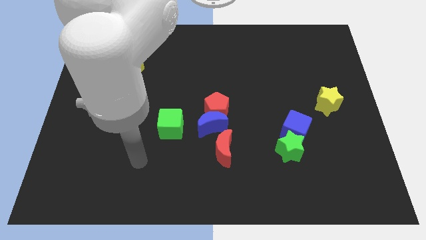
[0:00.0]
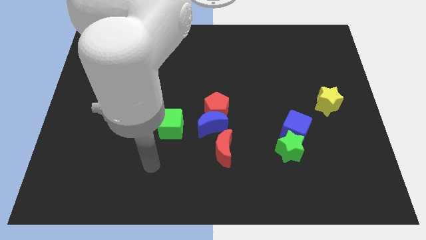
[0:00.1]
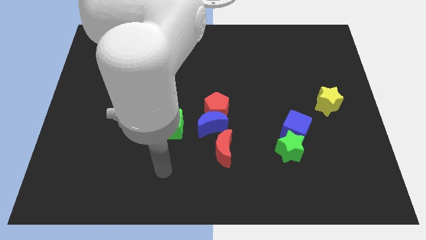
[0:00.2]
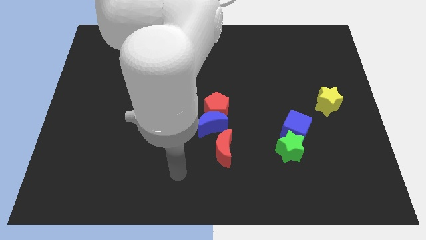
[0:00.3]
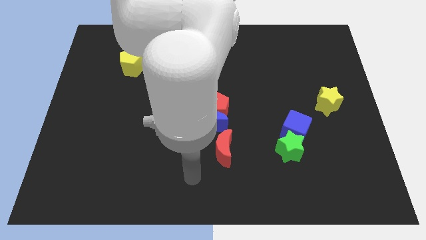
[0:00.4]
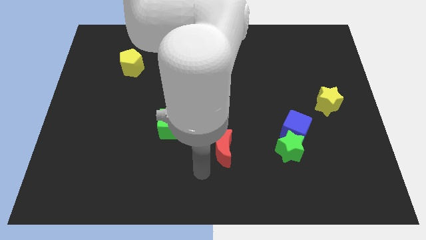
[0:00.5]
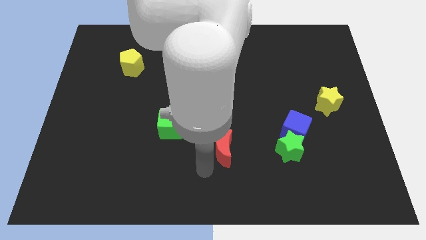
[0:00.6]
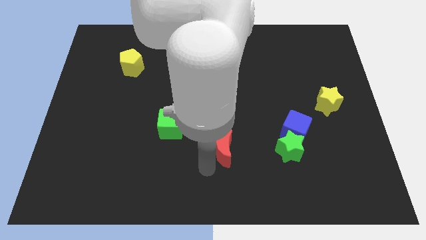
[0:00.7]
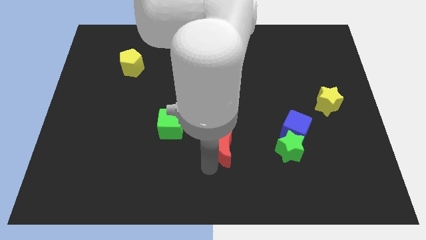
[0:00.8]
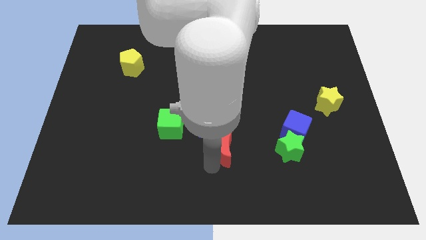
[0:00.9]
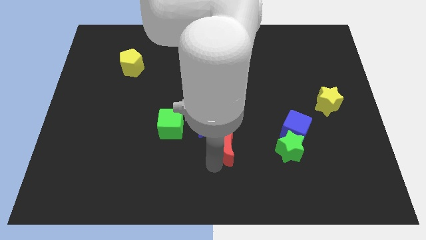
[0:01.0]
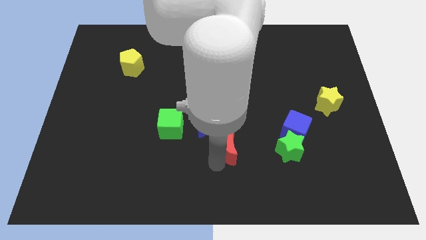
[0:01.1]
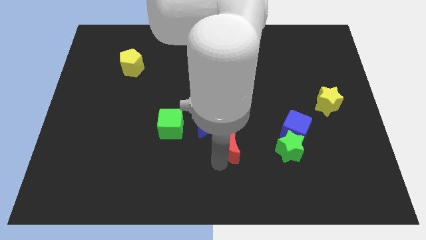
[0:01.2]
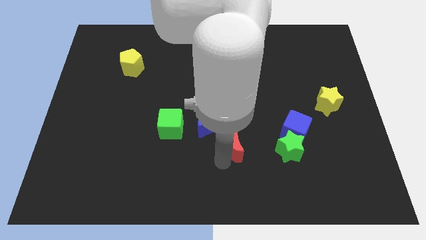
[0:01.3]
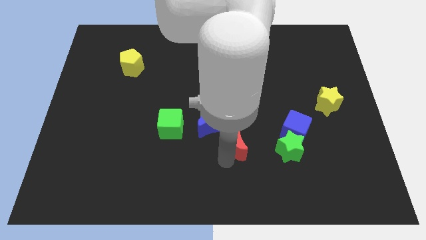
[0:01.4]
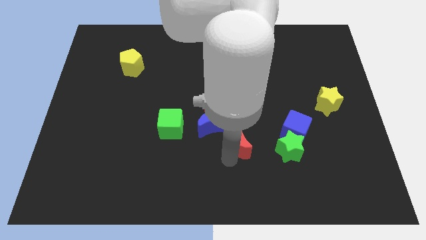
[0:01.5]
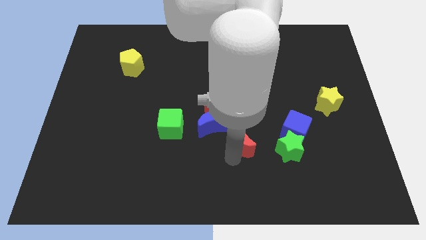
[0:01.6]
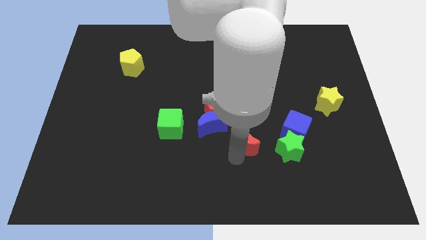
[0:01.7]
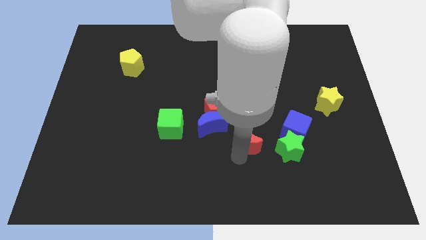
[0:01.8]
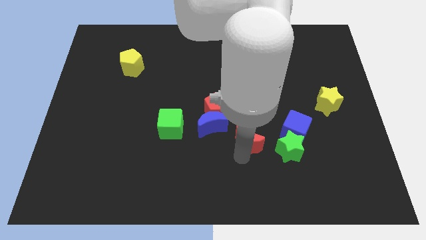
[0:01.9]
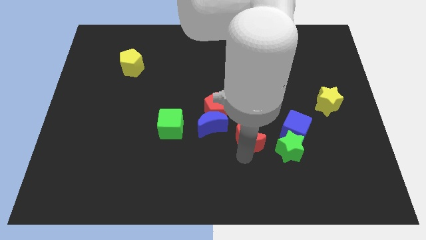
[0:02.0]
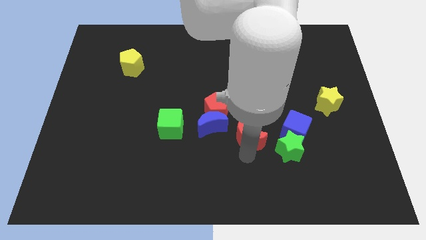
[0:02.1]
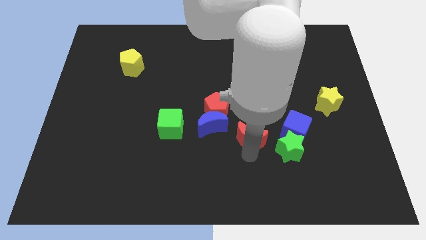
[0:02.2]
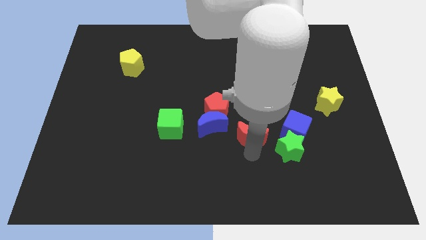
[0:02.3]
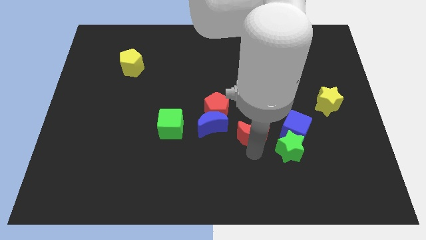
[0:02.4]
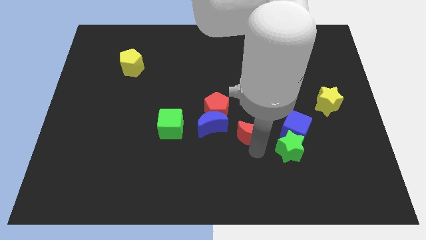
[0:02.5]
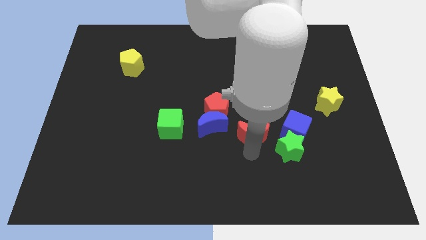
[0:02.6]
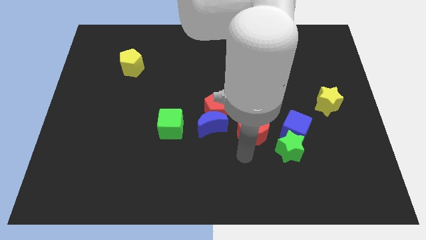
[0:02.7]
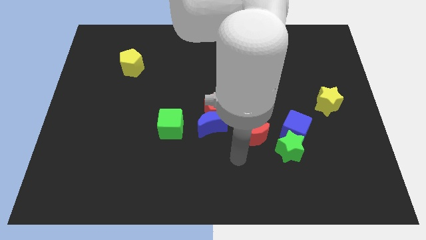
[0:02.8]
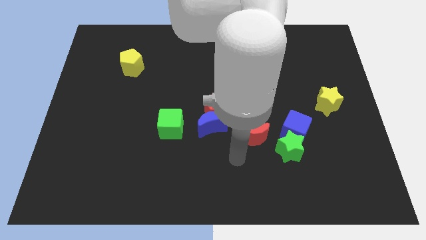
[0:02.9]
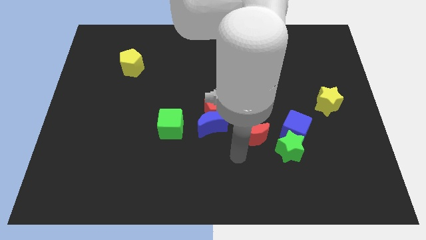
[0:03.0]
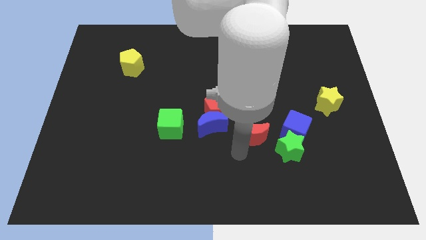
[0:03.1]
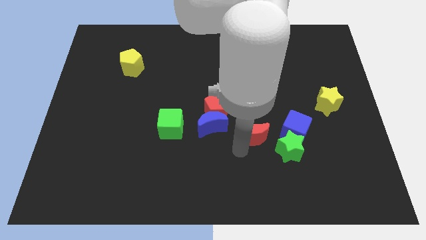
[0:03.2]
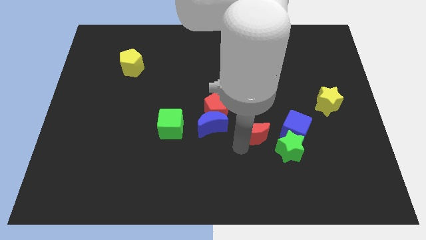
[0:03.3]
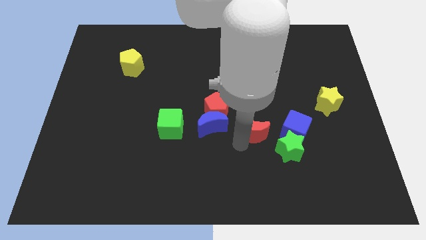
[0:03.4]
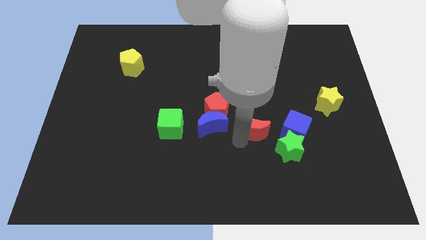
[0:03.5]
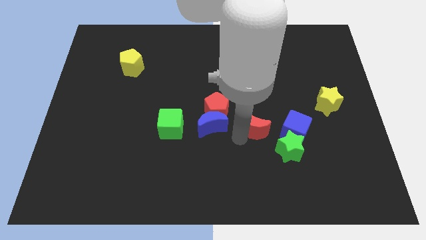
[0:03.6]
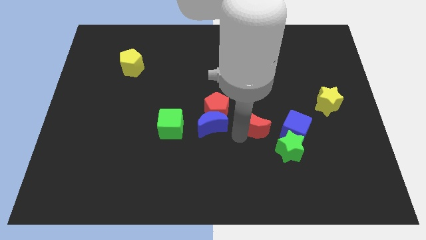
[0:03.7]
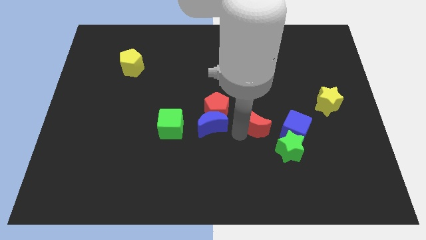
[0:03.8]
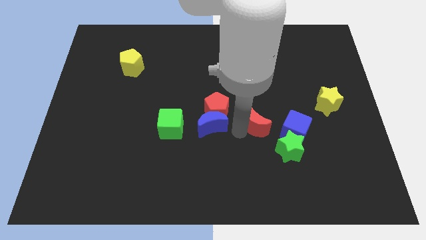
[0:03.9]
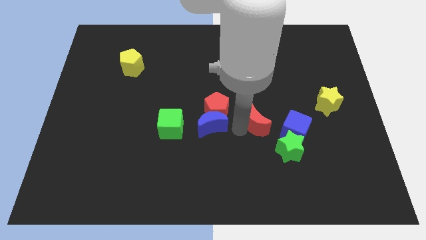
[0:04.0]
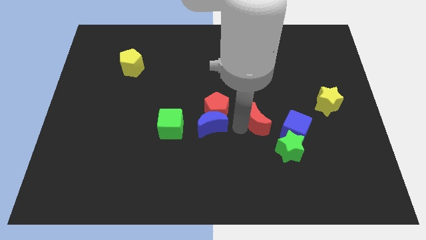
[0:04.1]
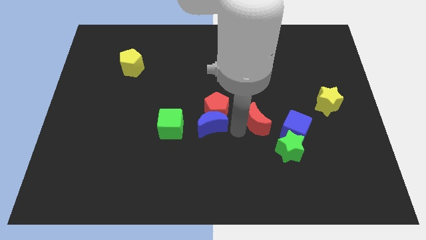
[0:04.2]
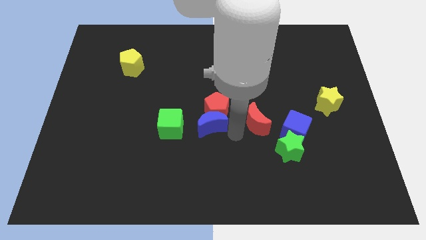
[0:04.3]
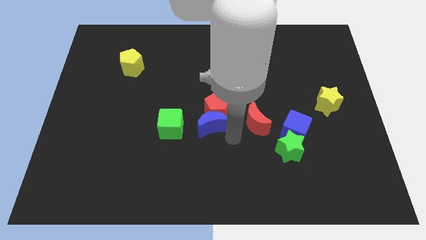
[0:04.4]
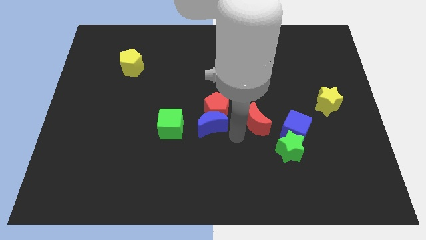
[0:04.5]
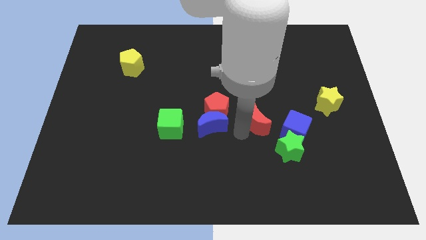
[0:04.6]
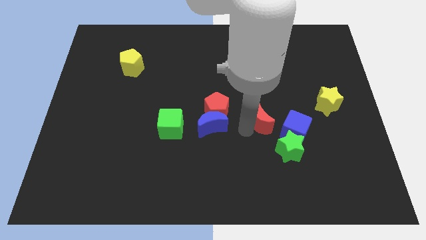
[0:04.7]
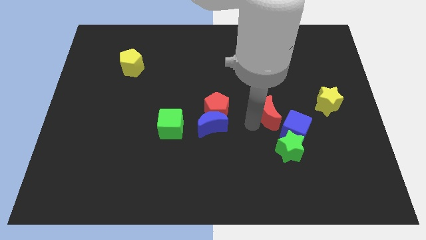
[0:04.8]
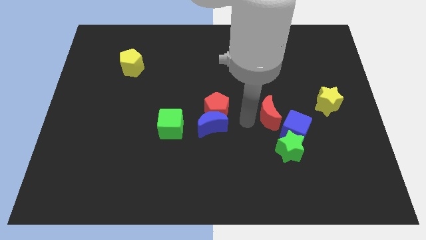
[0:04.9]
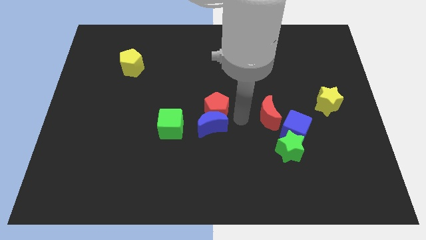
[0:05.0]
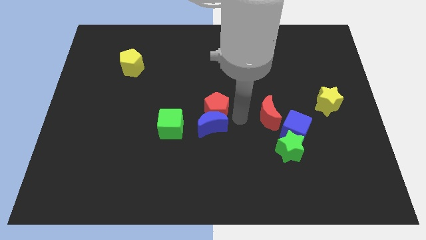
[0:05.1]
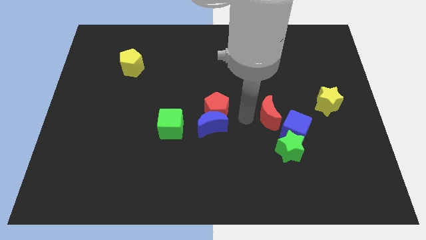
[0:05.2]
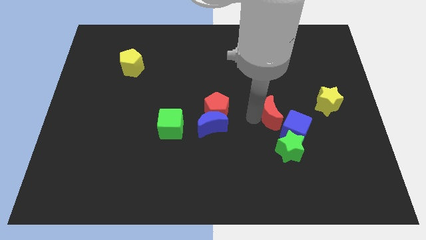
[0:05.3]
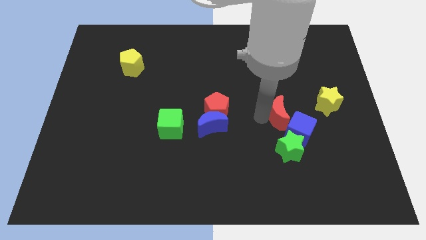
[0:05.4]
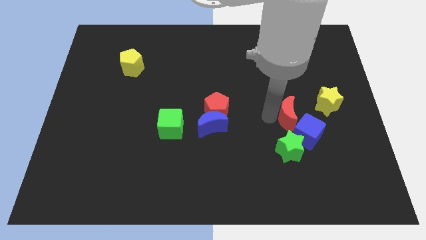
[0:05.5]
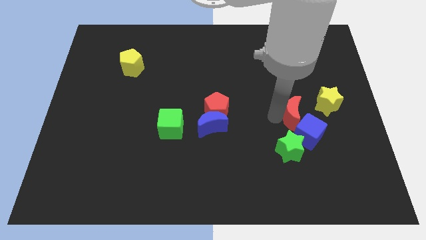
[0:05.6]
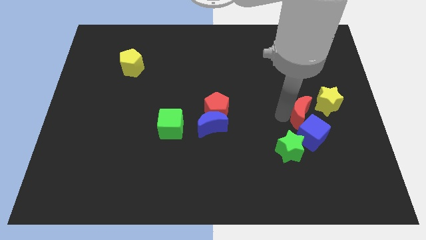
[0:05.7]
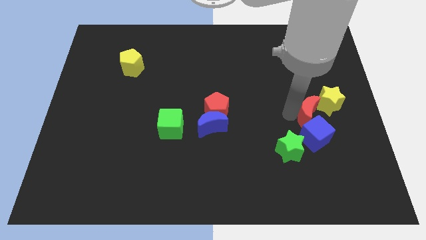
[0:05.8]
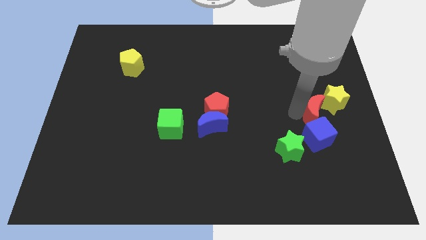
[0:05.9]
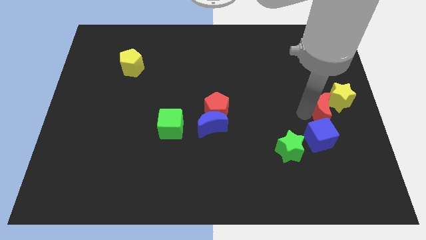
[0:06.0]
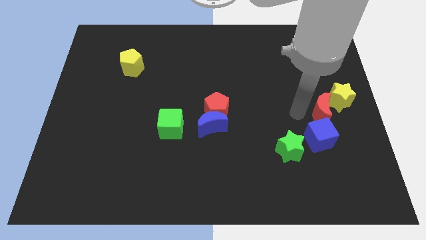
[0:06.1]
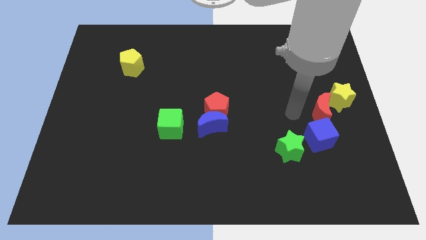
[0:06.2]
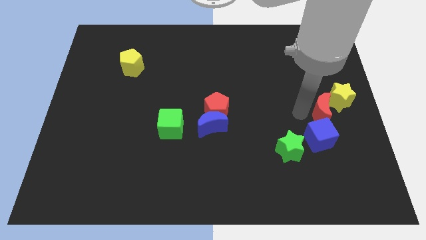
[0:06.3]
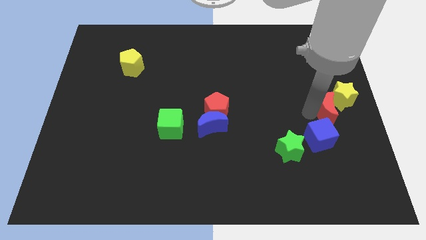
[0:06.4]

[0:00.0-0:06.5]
move the red moon to the right side

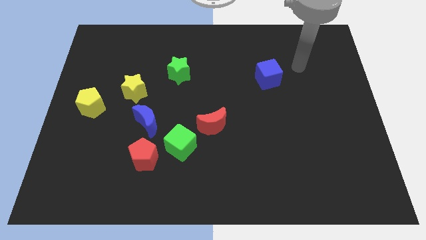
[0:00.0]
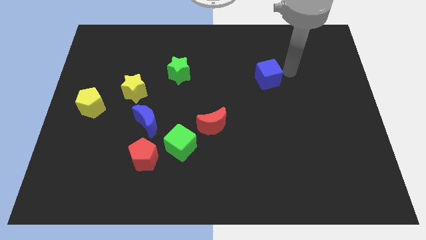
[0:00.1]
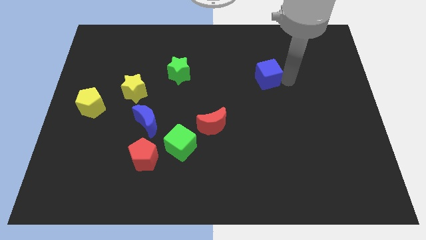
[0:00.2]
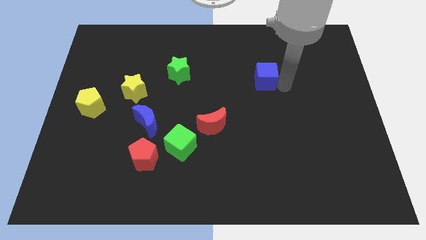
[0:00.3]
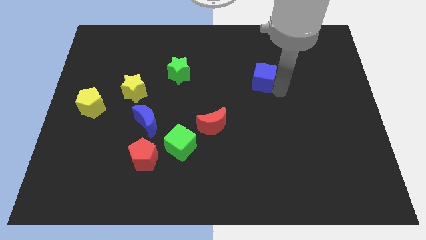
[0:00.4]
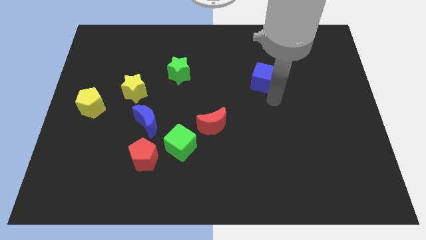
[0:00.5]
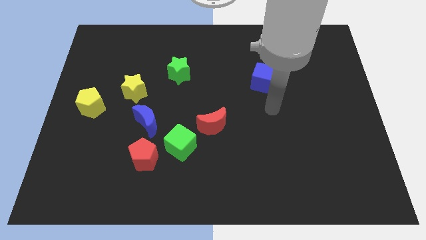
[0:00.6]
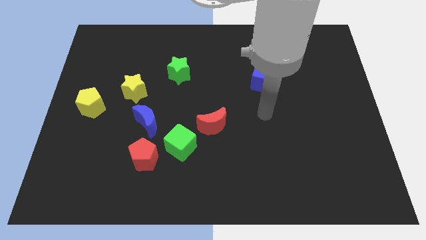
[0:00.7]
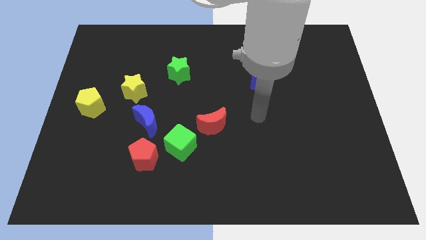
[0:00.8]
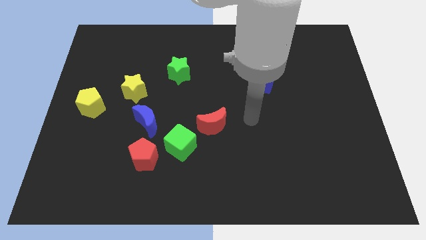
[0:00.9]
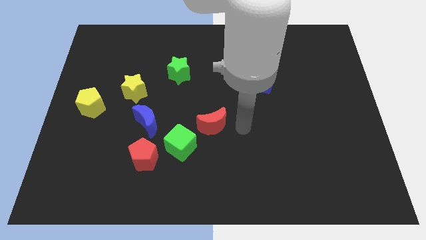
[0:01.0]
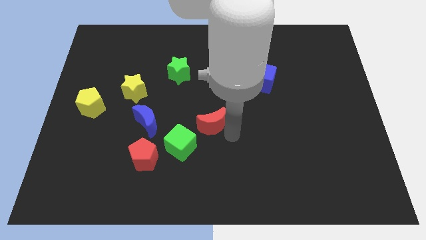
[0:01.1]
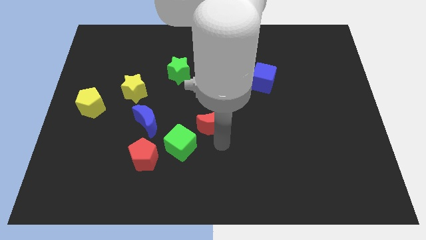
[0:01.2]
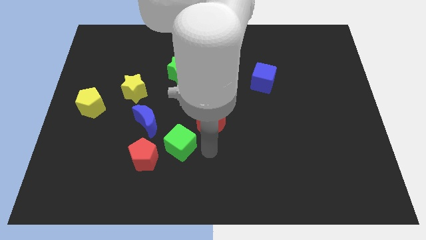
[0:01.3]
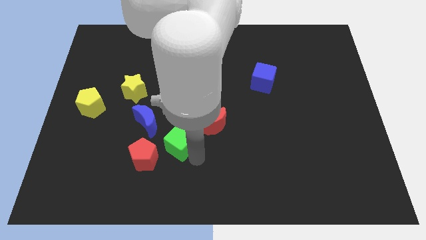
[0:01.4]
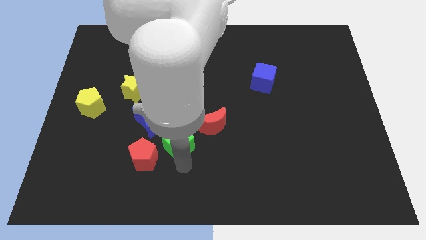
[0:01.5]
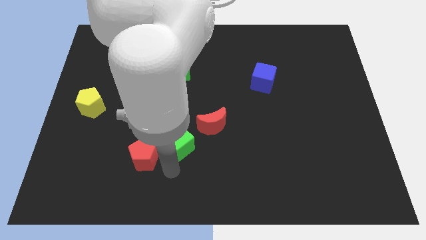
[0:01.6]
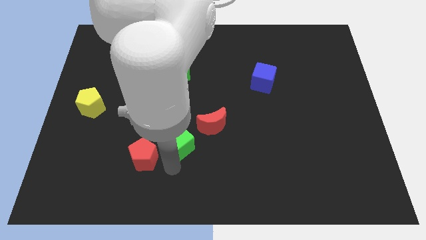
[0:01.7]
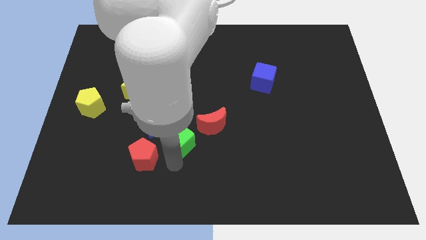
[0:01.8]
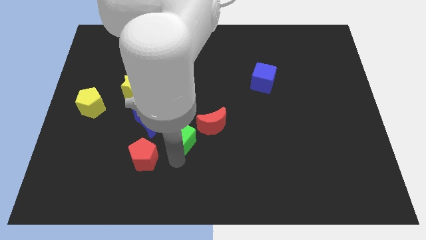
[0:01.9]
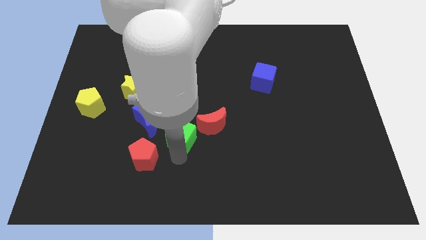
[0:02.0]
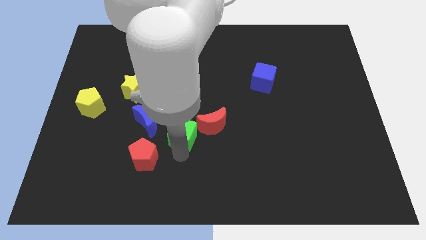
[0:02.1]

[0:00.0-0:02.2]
put the green cube to the middle
